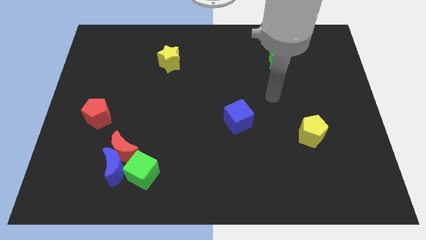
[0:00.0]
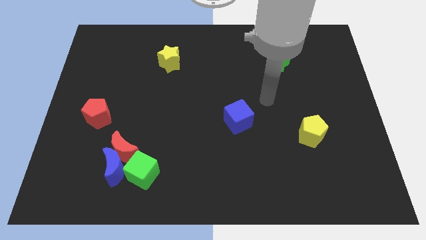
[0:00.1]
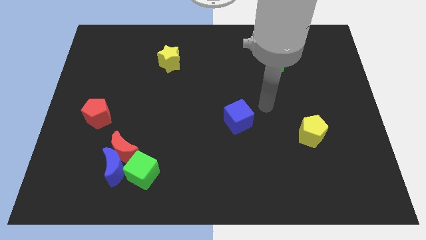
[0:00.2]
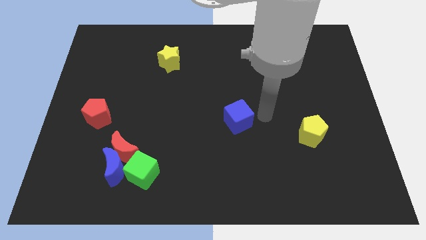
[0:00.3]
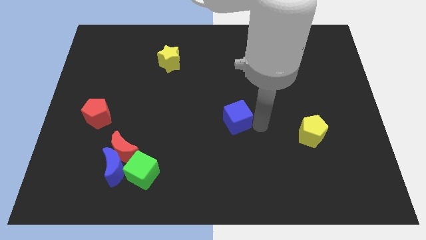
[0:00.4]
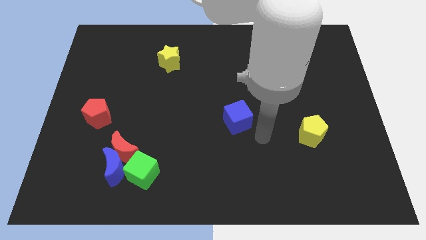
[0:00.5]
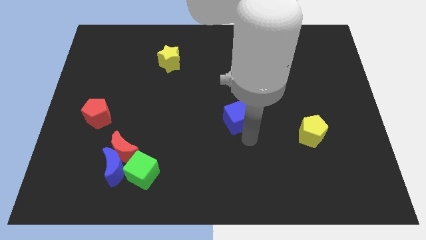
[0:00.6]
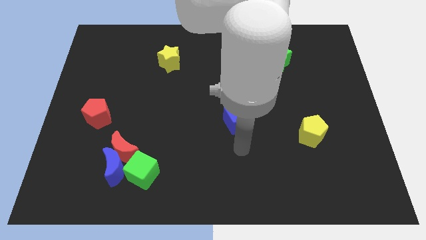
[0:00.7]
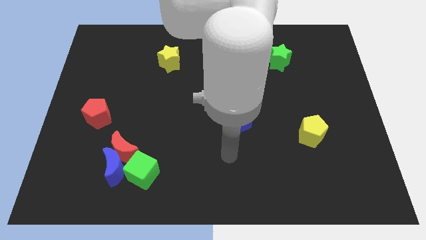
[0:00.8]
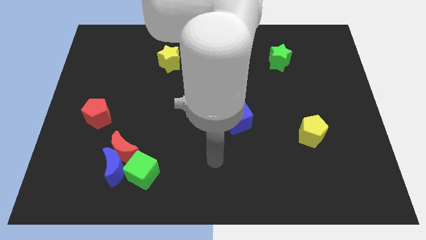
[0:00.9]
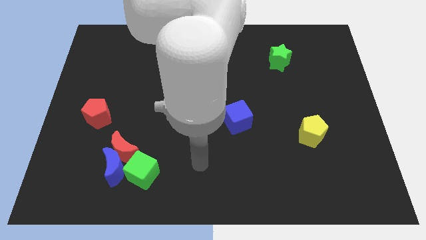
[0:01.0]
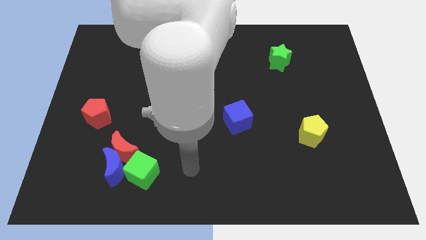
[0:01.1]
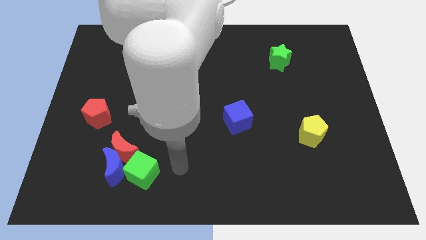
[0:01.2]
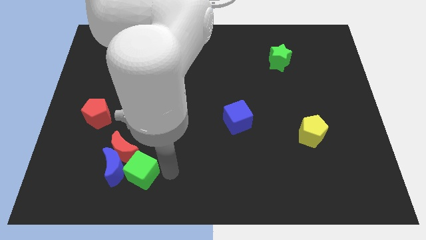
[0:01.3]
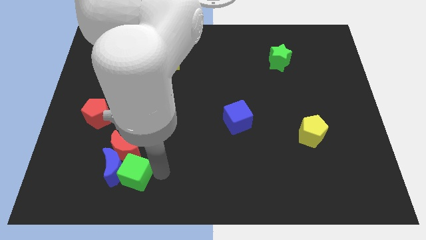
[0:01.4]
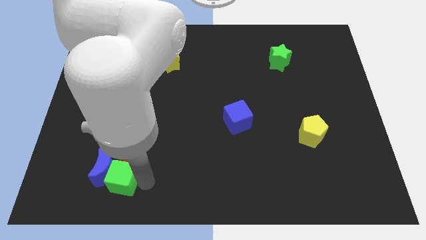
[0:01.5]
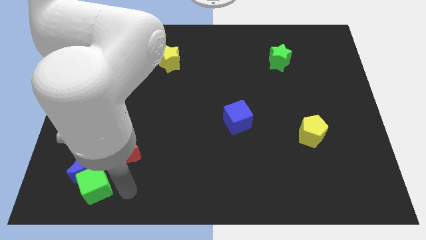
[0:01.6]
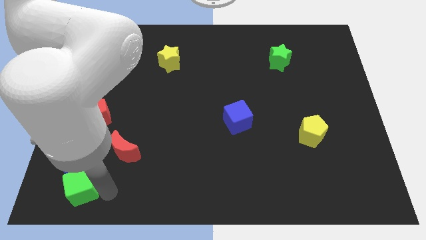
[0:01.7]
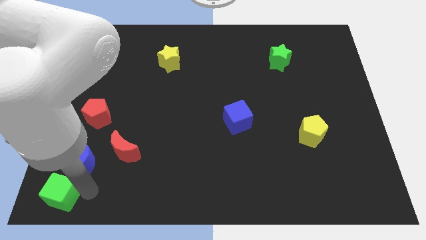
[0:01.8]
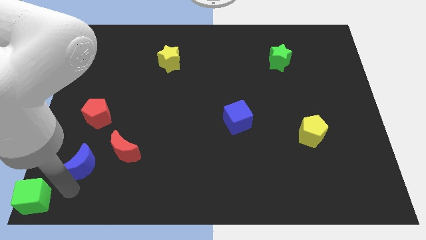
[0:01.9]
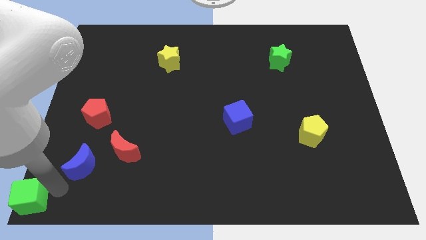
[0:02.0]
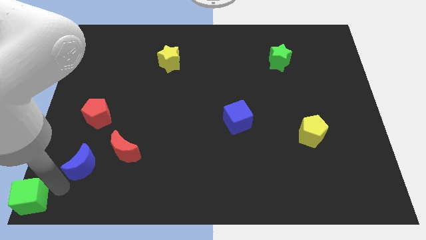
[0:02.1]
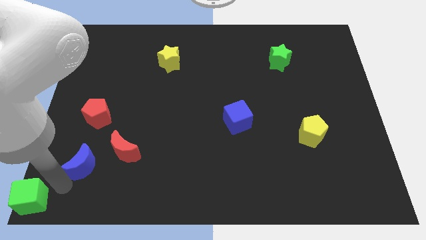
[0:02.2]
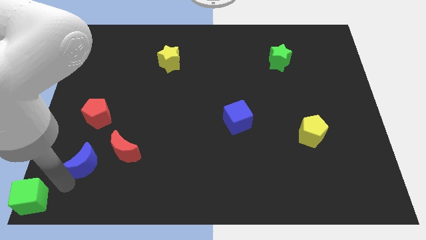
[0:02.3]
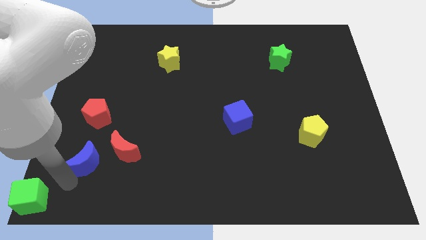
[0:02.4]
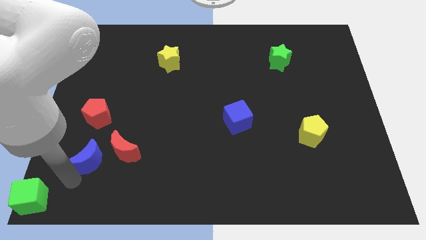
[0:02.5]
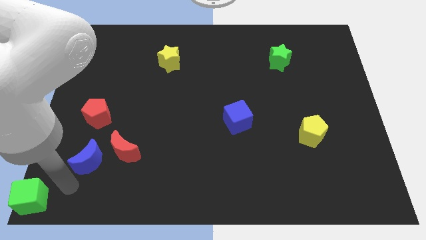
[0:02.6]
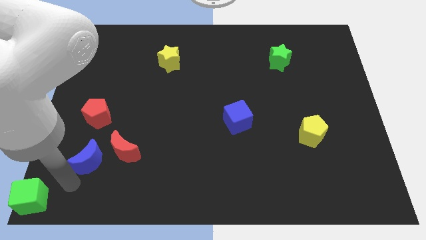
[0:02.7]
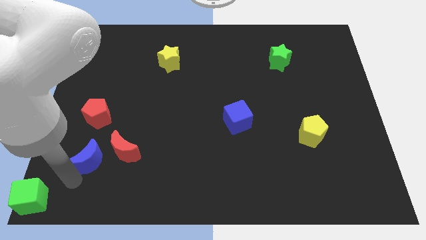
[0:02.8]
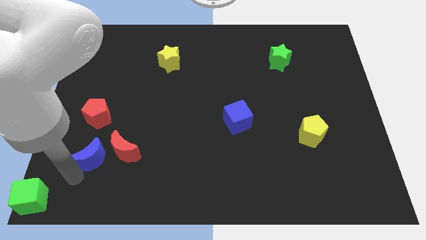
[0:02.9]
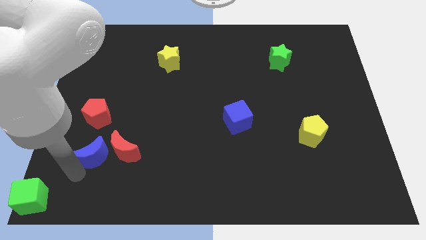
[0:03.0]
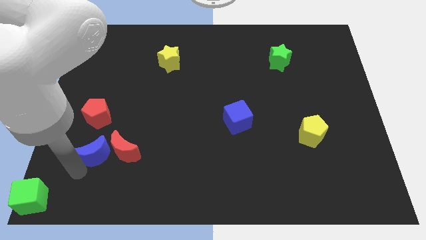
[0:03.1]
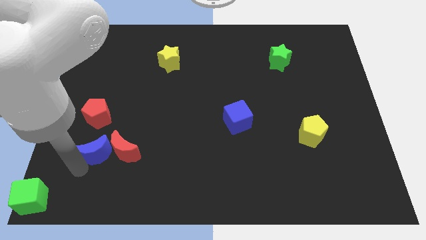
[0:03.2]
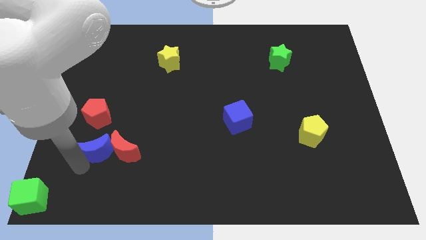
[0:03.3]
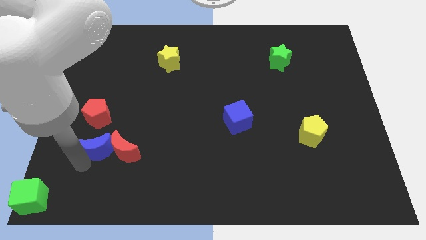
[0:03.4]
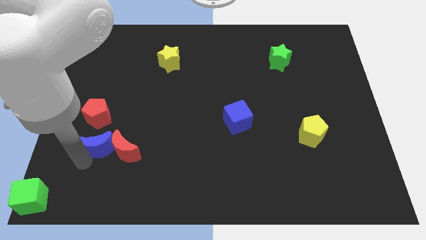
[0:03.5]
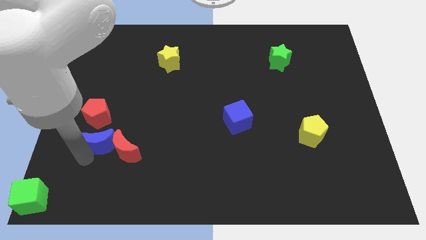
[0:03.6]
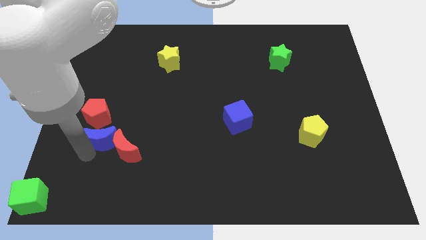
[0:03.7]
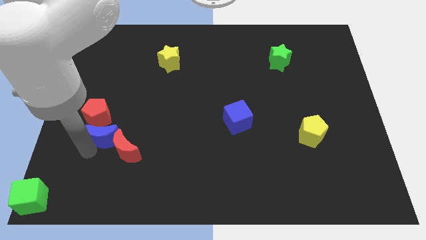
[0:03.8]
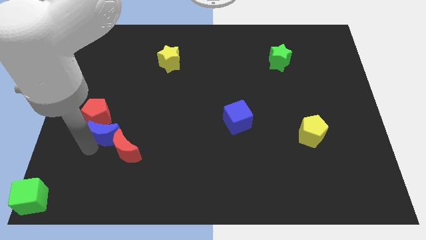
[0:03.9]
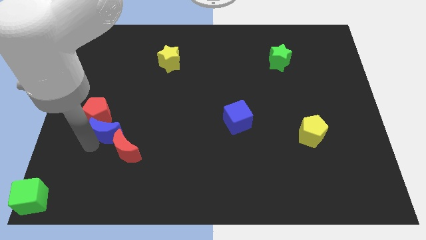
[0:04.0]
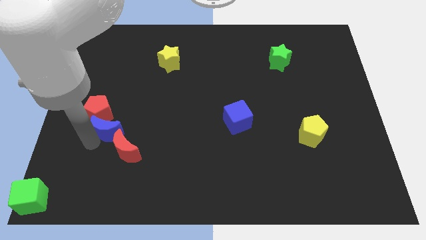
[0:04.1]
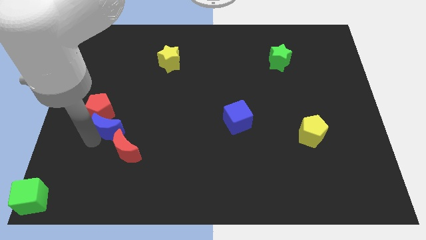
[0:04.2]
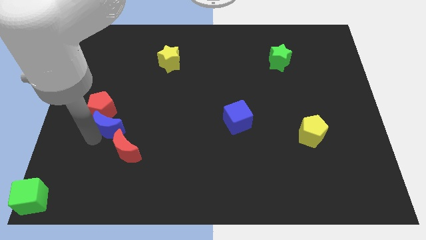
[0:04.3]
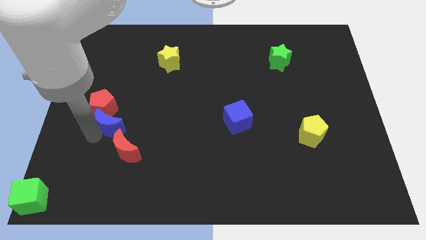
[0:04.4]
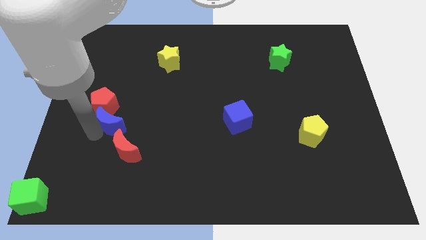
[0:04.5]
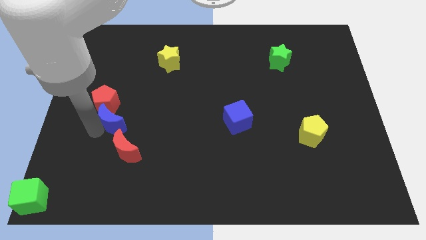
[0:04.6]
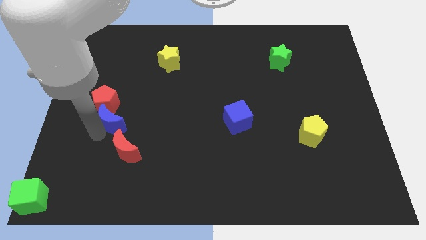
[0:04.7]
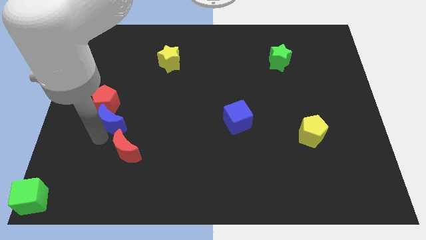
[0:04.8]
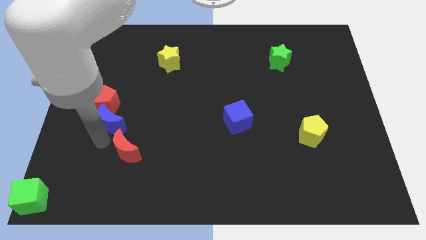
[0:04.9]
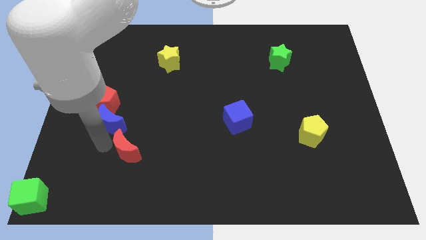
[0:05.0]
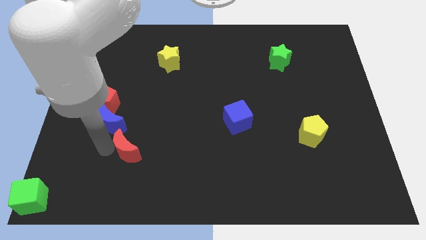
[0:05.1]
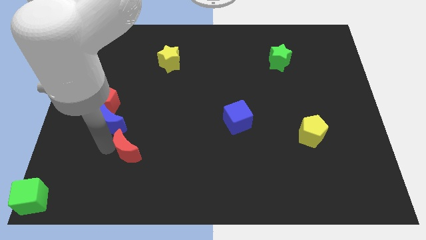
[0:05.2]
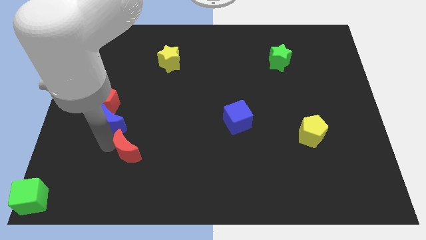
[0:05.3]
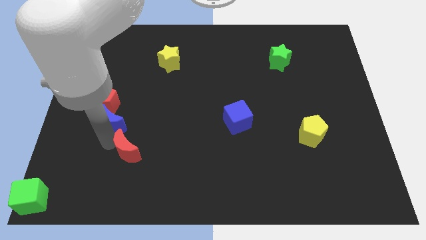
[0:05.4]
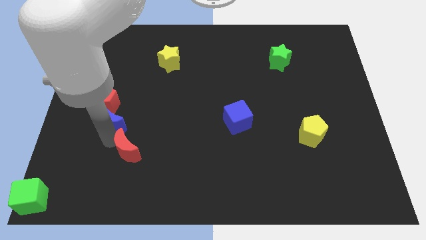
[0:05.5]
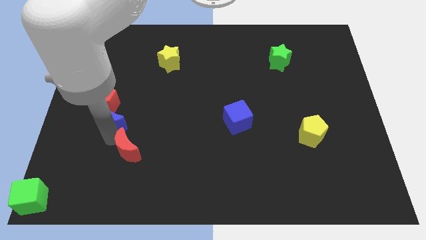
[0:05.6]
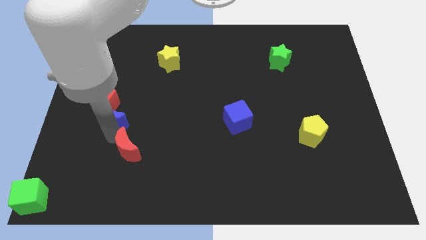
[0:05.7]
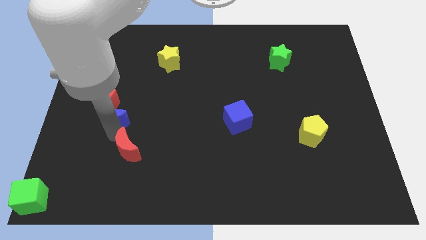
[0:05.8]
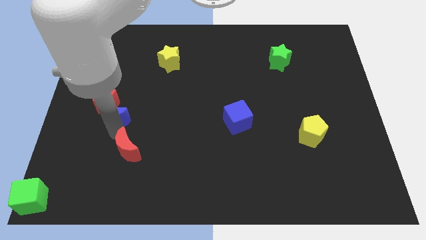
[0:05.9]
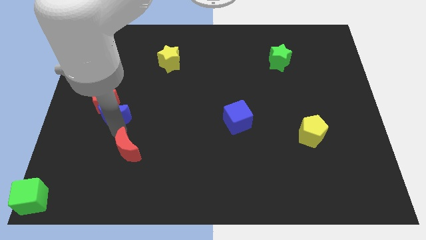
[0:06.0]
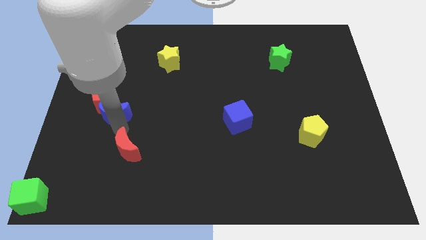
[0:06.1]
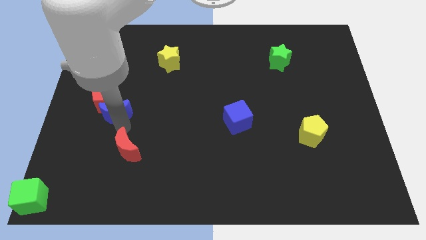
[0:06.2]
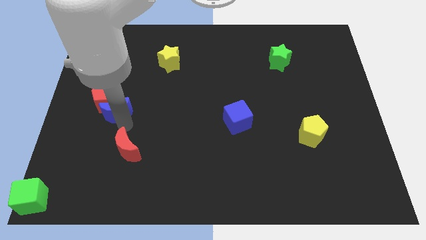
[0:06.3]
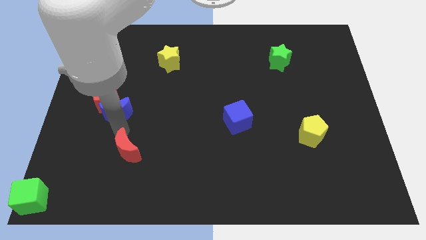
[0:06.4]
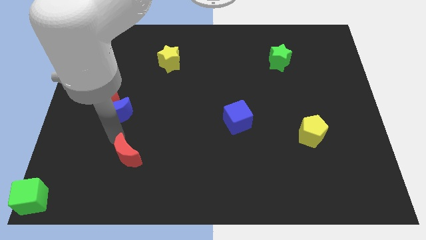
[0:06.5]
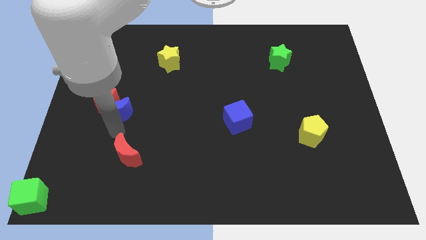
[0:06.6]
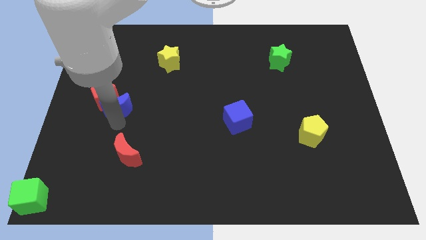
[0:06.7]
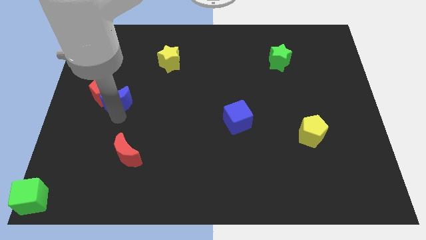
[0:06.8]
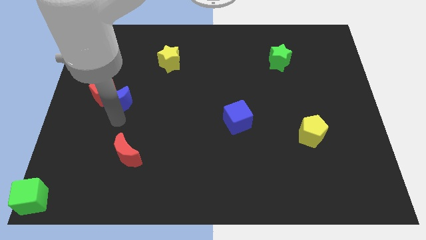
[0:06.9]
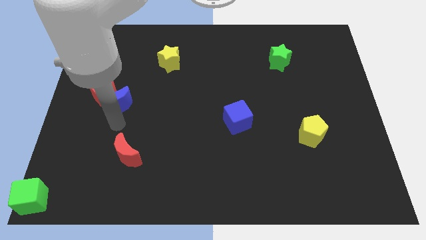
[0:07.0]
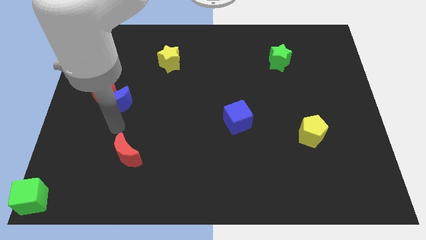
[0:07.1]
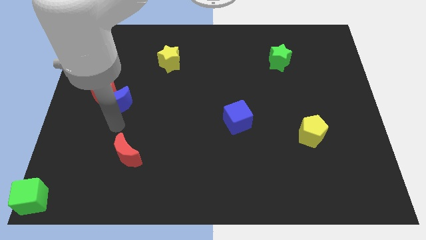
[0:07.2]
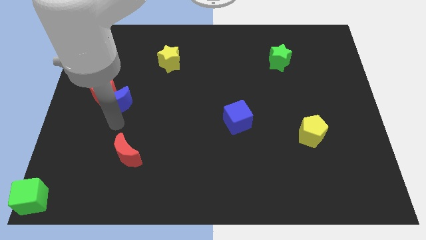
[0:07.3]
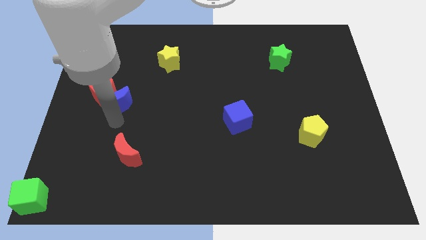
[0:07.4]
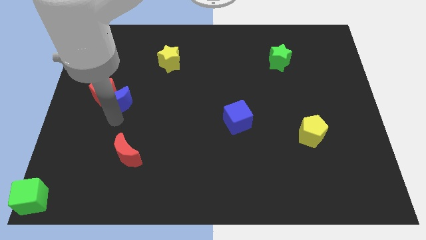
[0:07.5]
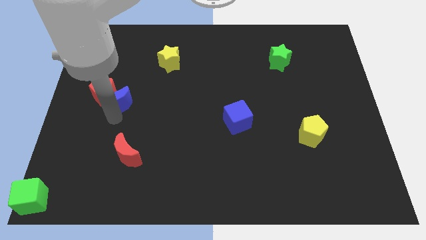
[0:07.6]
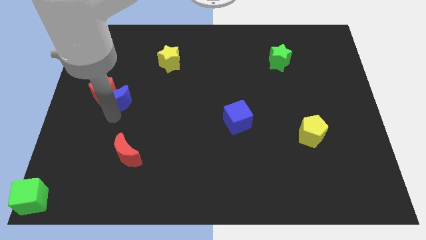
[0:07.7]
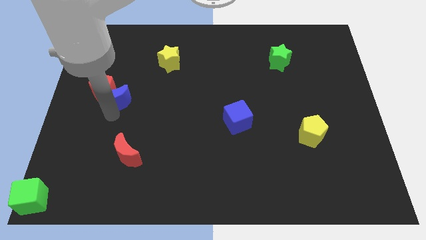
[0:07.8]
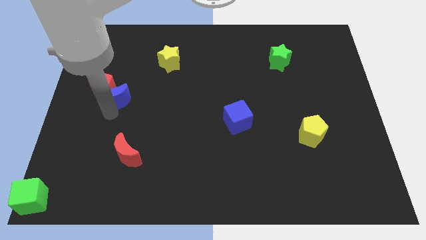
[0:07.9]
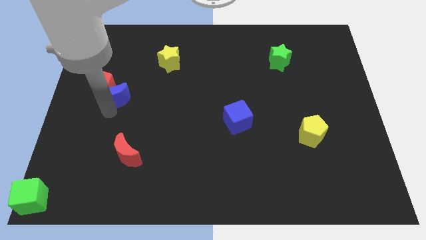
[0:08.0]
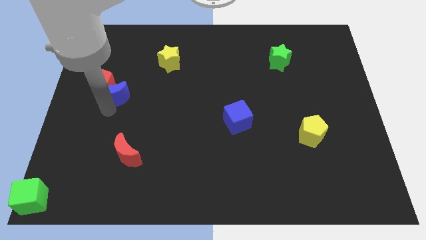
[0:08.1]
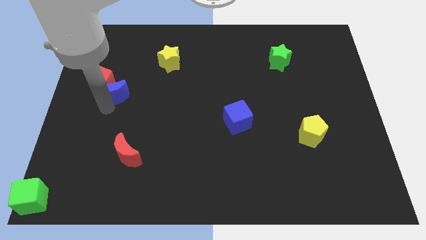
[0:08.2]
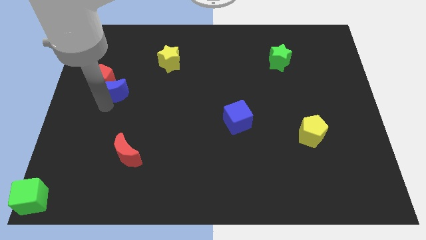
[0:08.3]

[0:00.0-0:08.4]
push the blue moon upwards
